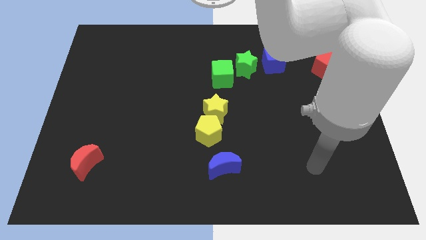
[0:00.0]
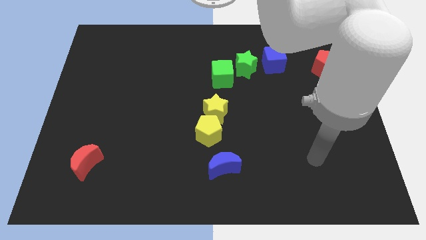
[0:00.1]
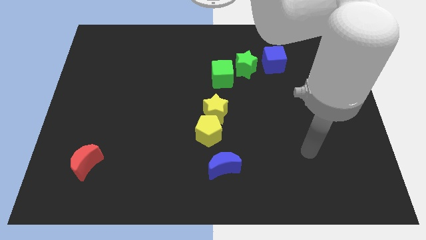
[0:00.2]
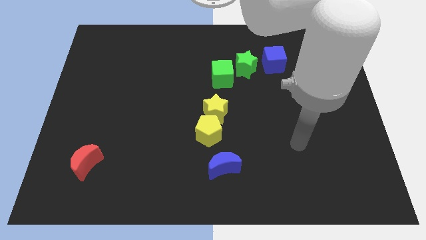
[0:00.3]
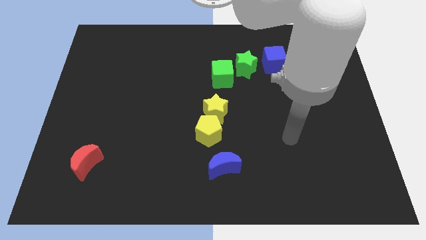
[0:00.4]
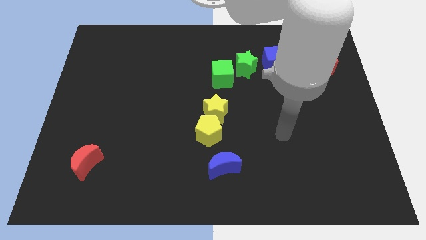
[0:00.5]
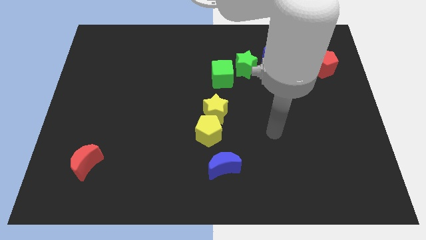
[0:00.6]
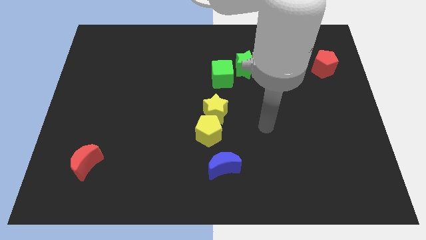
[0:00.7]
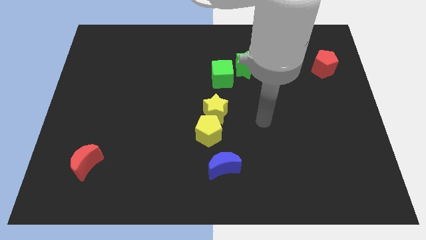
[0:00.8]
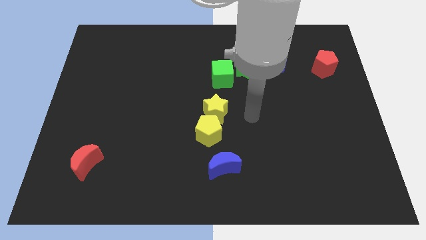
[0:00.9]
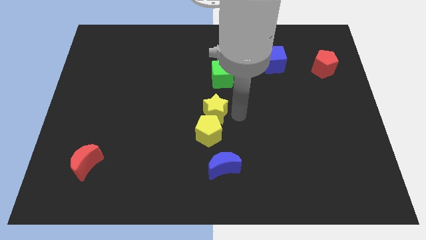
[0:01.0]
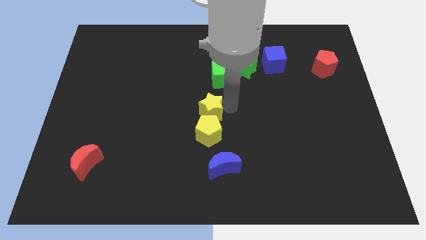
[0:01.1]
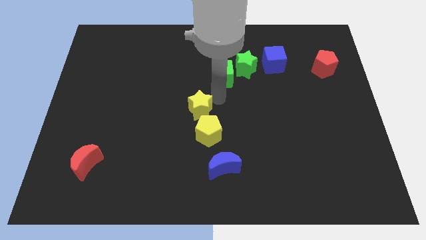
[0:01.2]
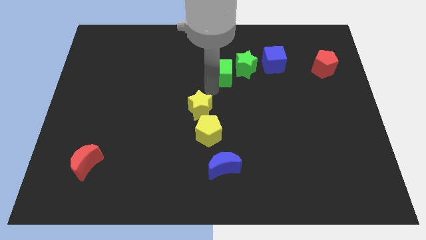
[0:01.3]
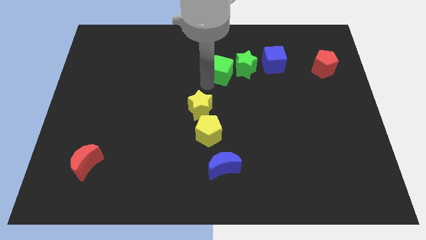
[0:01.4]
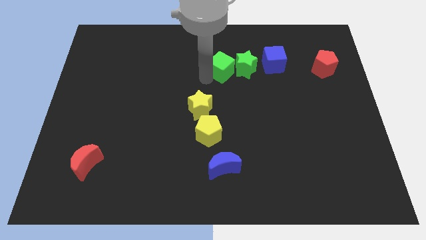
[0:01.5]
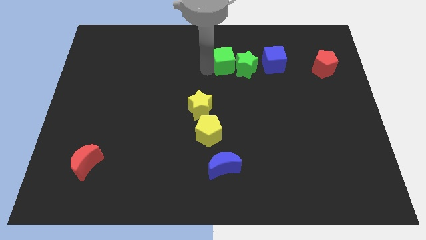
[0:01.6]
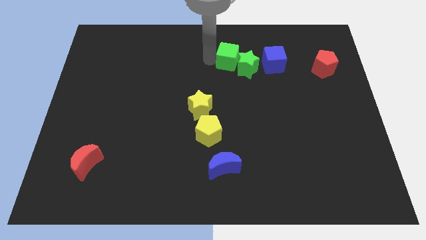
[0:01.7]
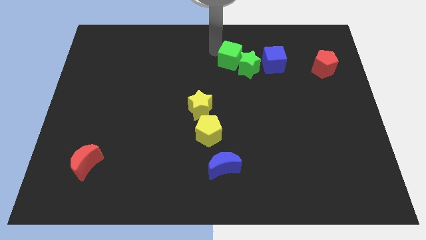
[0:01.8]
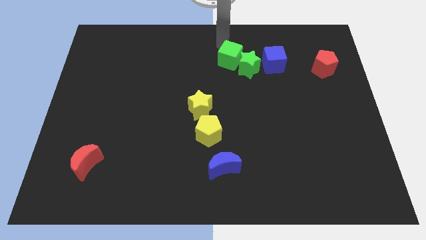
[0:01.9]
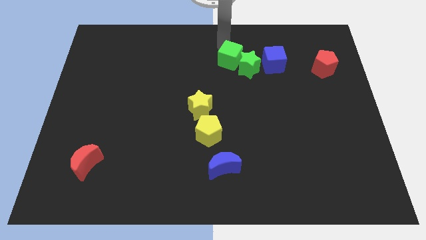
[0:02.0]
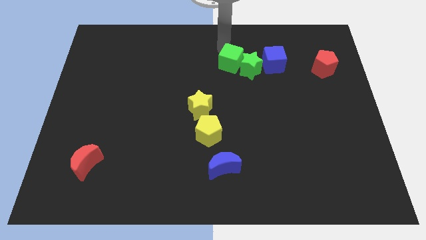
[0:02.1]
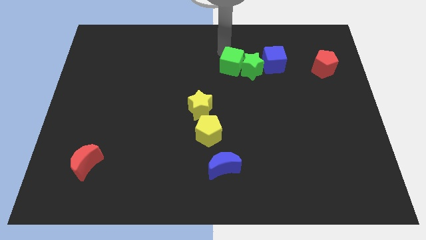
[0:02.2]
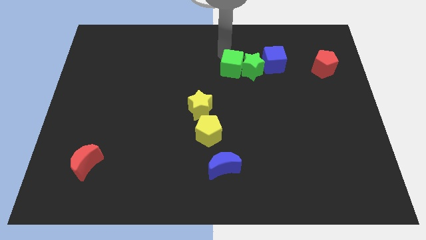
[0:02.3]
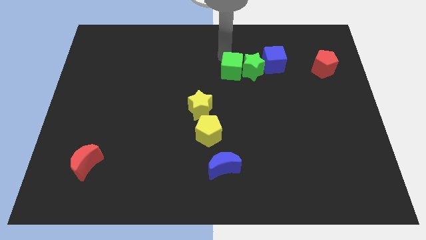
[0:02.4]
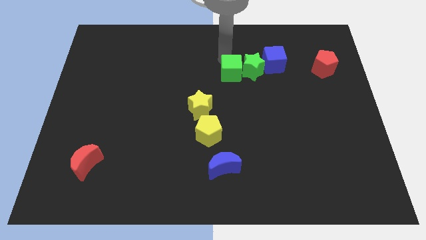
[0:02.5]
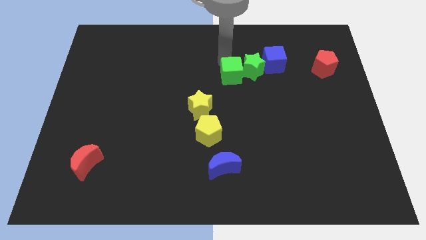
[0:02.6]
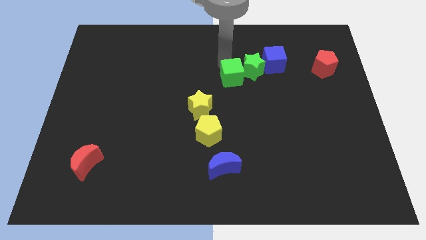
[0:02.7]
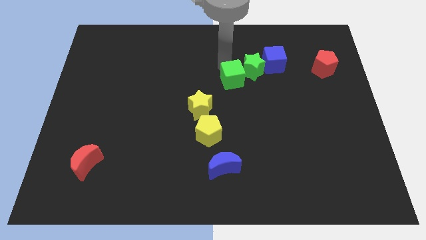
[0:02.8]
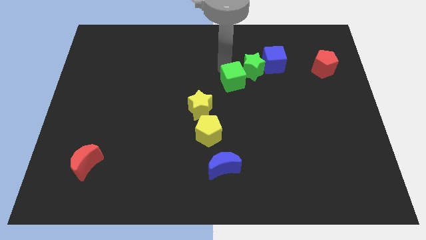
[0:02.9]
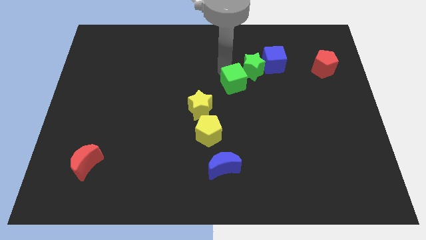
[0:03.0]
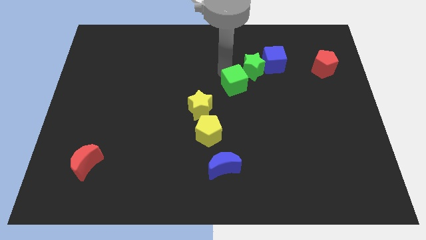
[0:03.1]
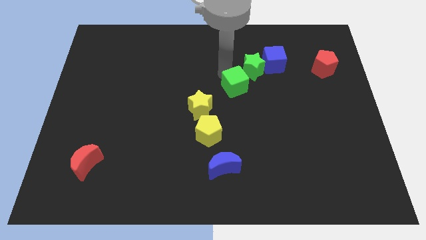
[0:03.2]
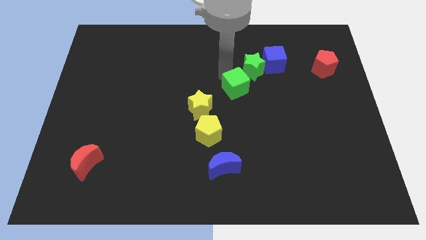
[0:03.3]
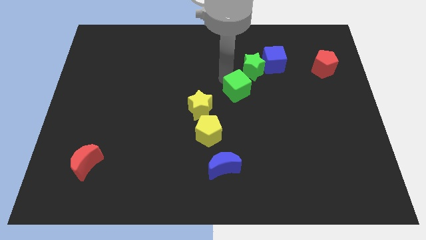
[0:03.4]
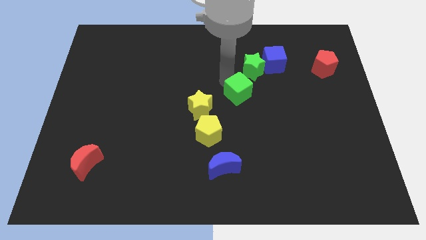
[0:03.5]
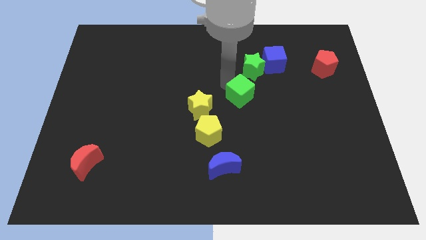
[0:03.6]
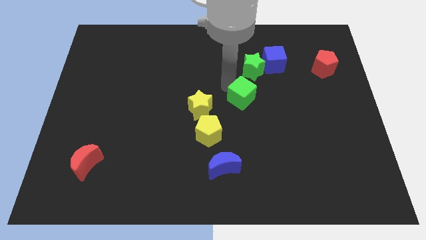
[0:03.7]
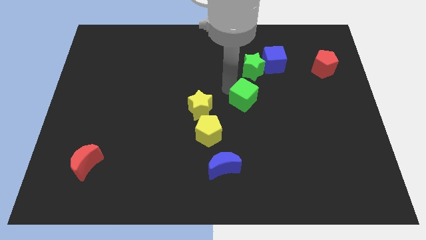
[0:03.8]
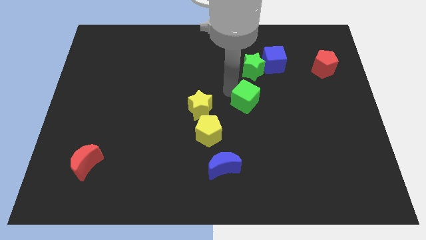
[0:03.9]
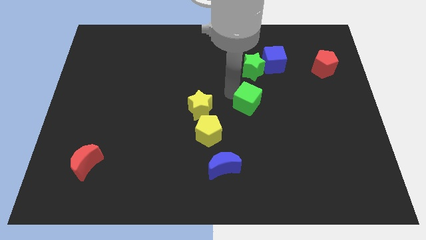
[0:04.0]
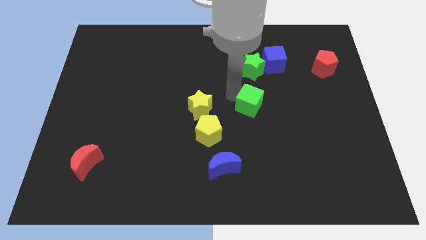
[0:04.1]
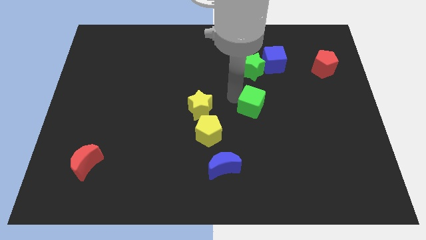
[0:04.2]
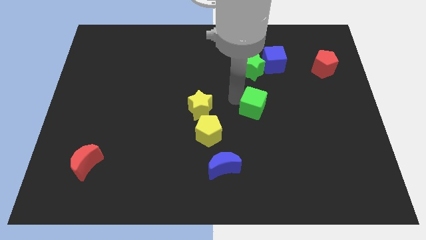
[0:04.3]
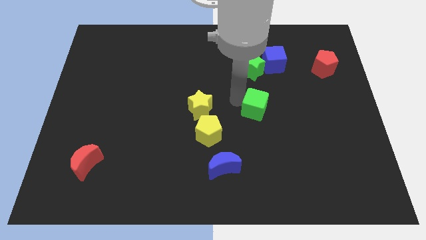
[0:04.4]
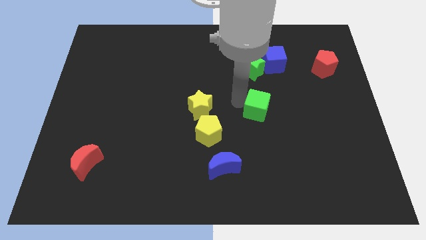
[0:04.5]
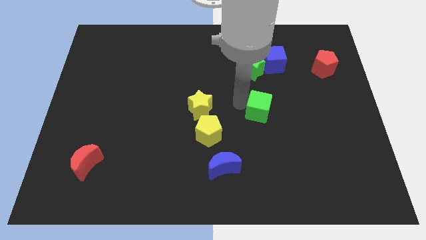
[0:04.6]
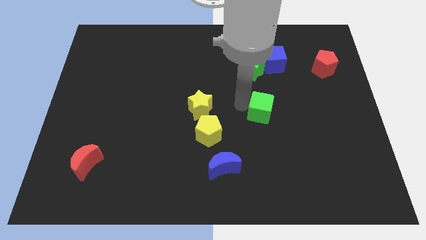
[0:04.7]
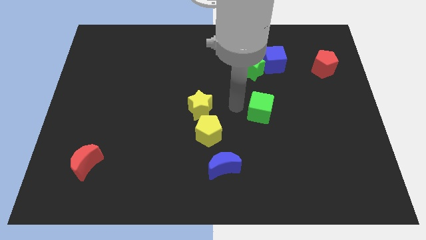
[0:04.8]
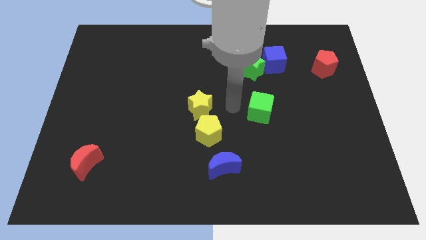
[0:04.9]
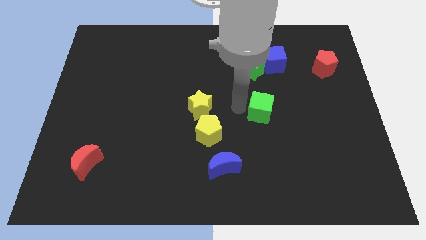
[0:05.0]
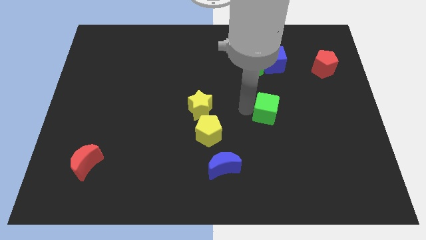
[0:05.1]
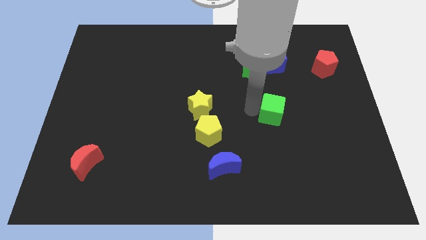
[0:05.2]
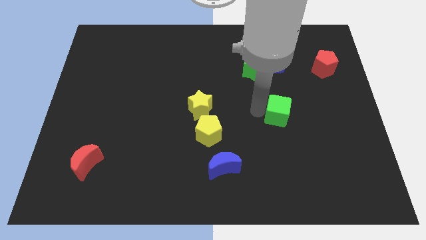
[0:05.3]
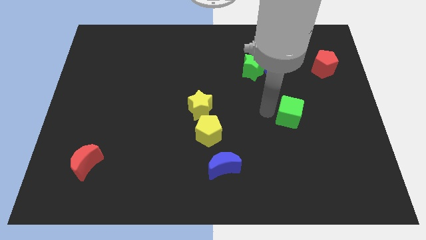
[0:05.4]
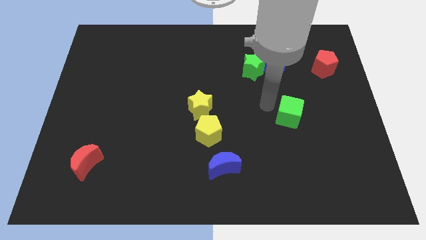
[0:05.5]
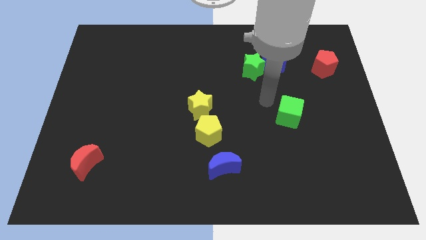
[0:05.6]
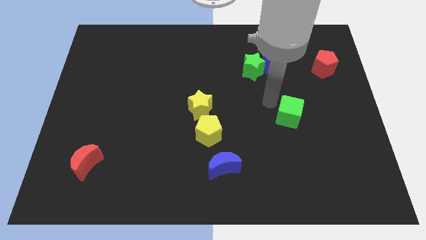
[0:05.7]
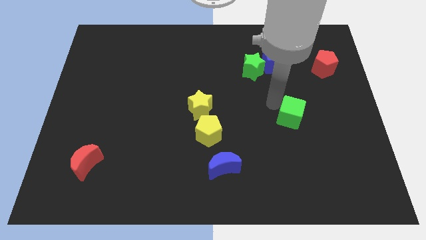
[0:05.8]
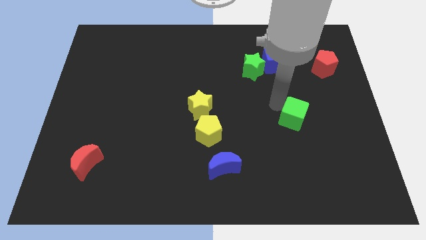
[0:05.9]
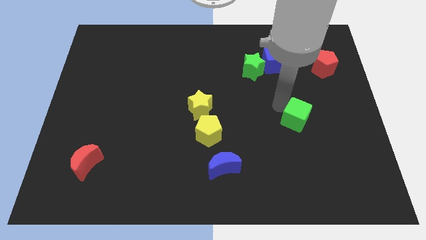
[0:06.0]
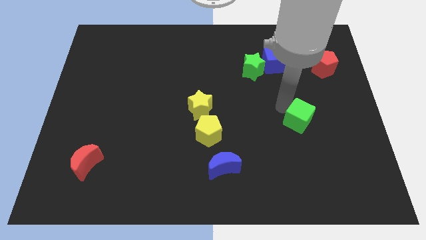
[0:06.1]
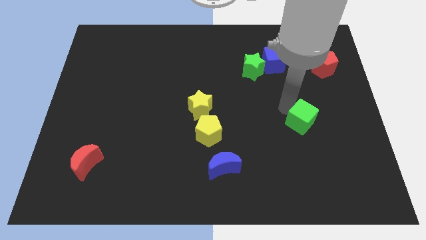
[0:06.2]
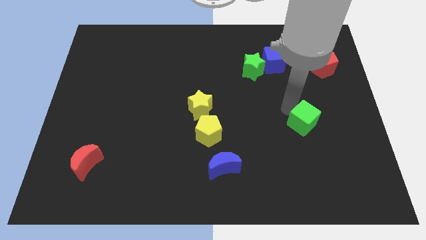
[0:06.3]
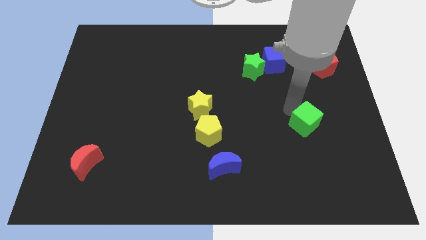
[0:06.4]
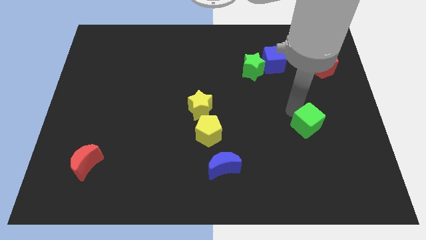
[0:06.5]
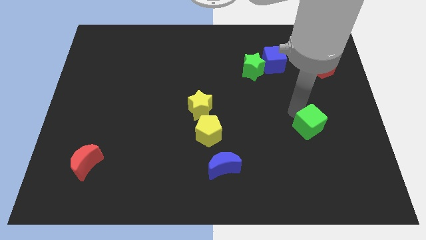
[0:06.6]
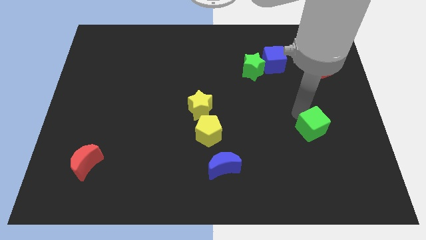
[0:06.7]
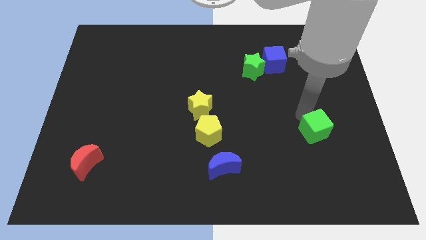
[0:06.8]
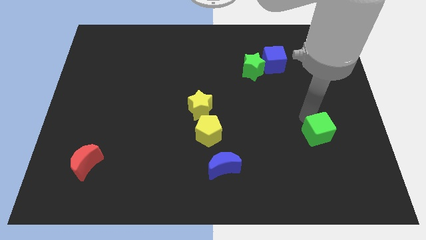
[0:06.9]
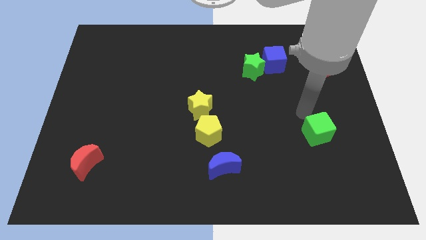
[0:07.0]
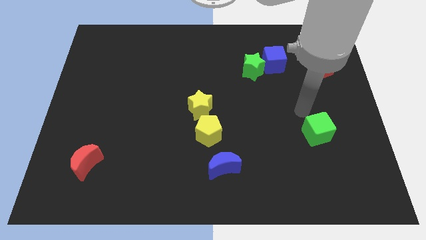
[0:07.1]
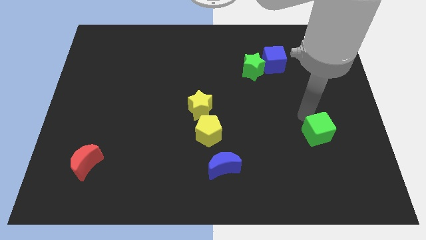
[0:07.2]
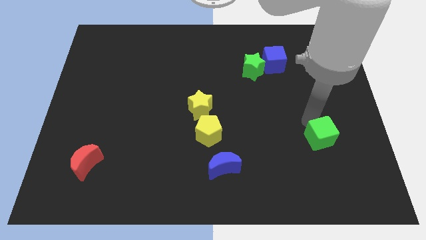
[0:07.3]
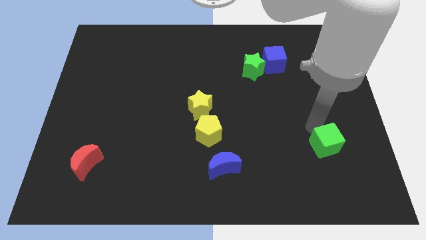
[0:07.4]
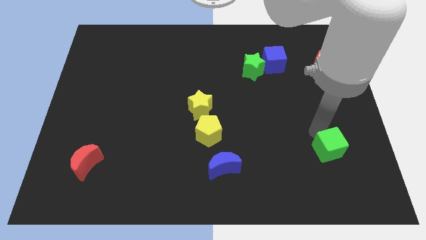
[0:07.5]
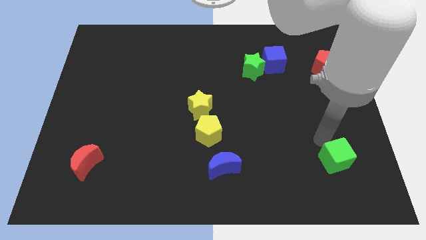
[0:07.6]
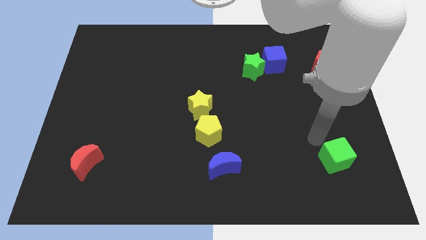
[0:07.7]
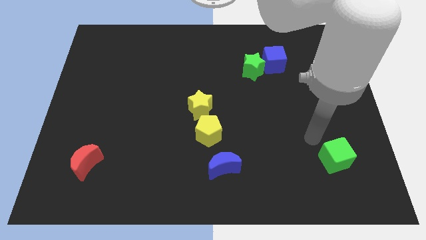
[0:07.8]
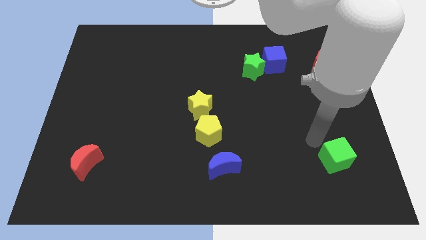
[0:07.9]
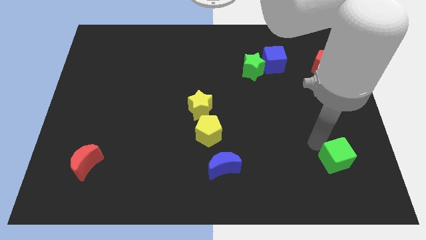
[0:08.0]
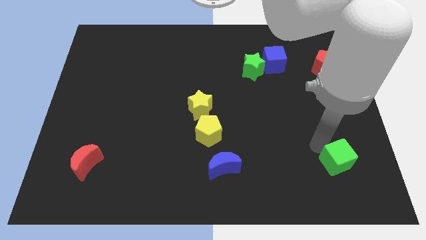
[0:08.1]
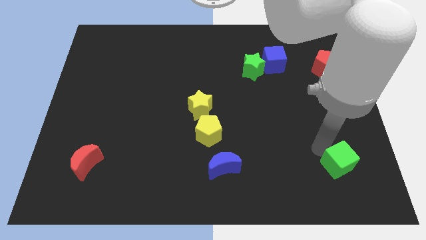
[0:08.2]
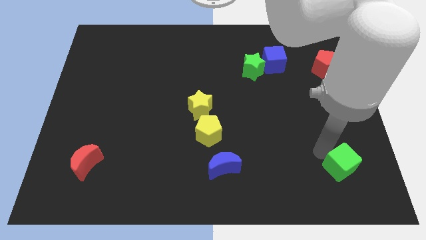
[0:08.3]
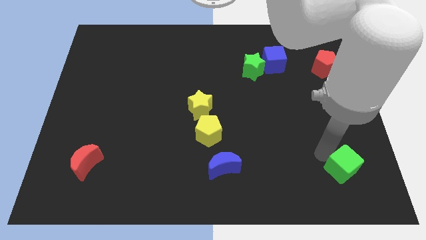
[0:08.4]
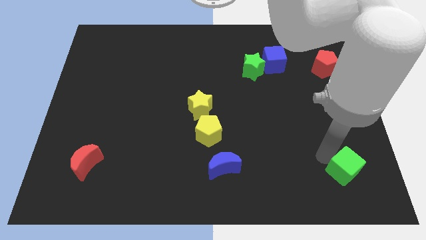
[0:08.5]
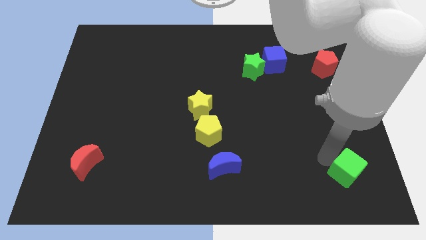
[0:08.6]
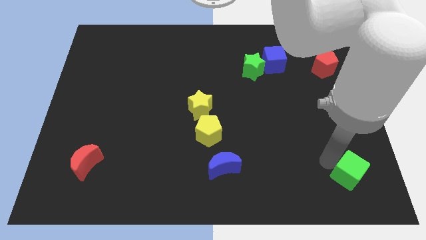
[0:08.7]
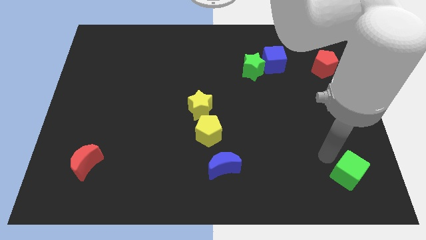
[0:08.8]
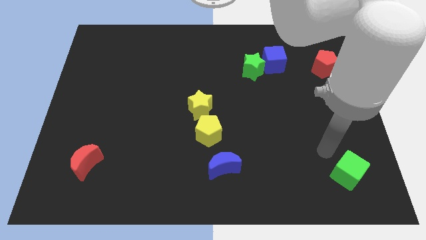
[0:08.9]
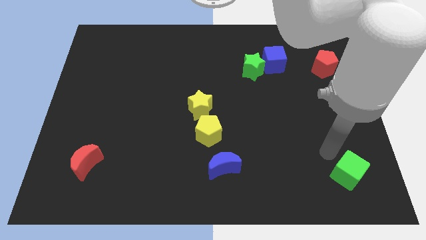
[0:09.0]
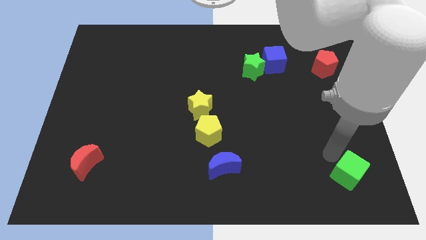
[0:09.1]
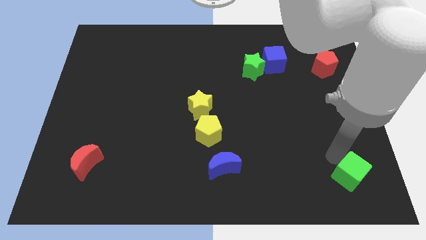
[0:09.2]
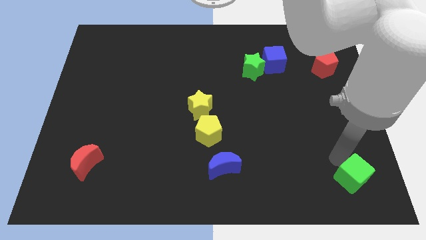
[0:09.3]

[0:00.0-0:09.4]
move the green cube to the bottom right corner
